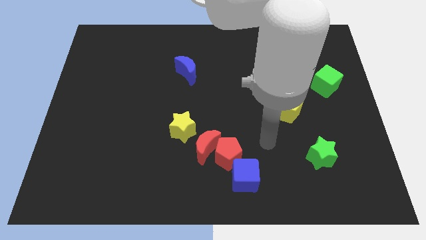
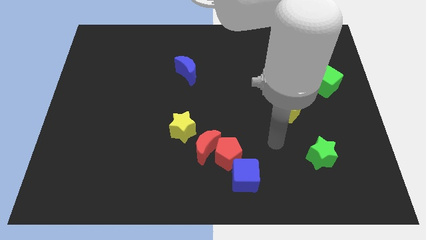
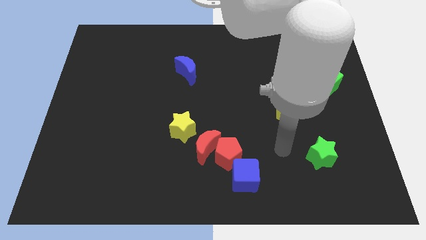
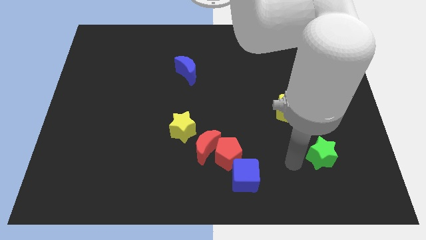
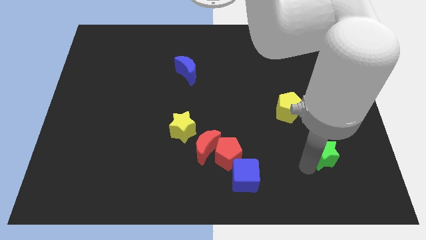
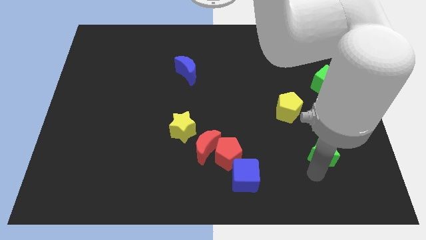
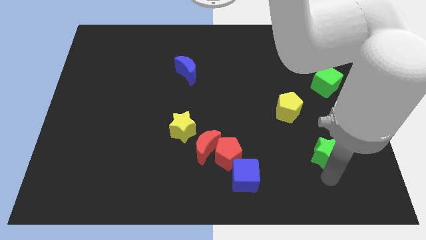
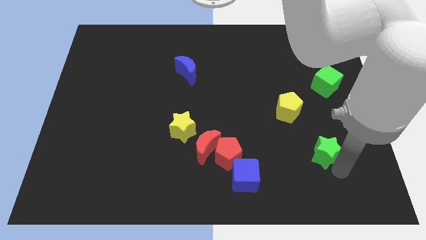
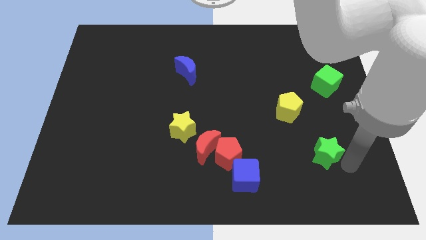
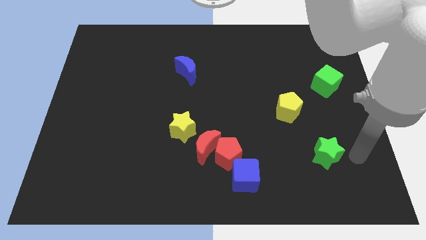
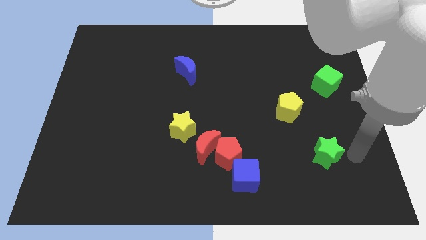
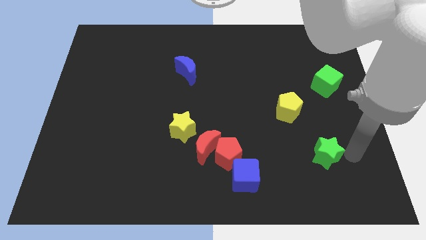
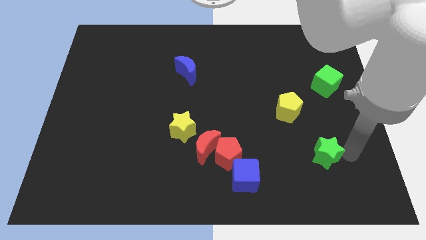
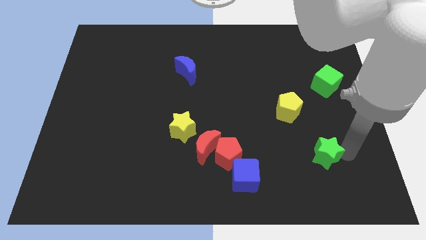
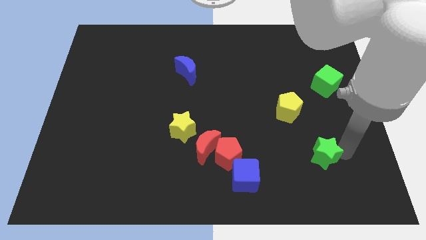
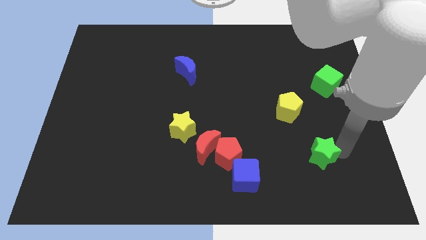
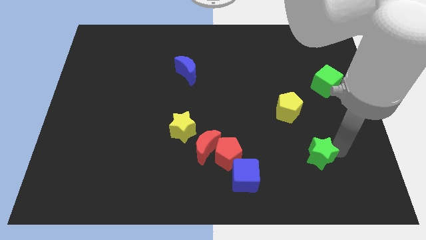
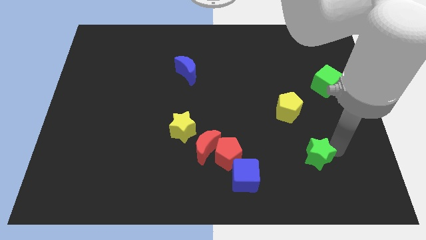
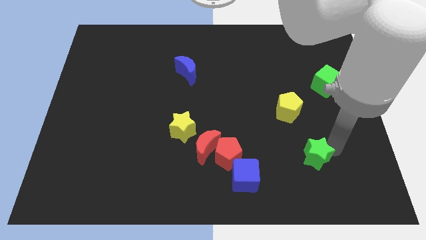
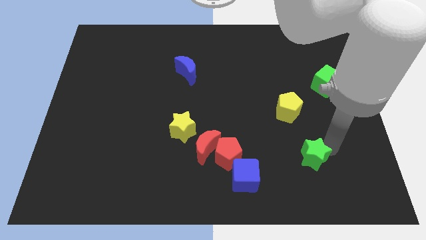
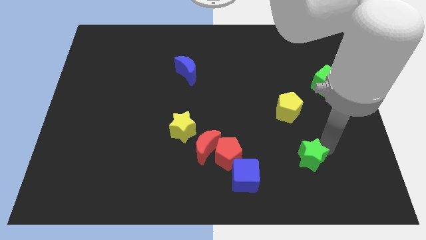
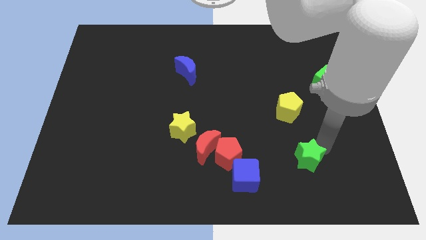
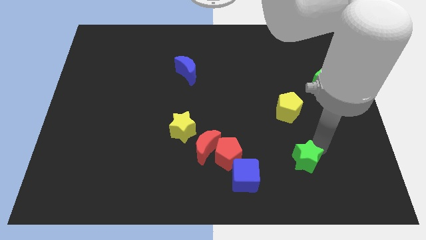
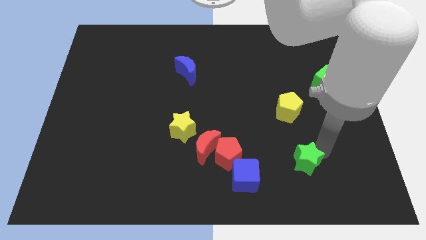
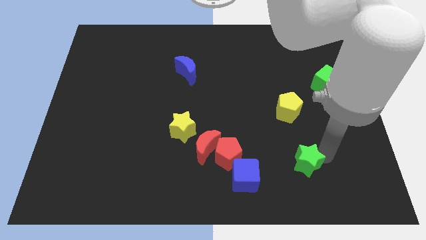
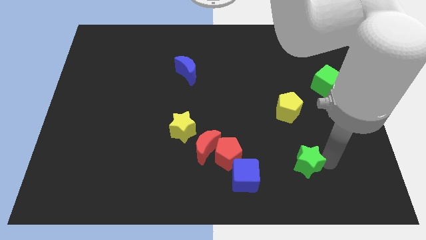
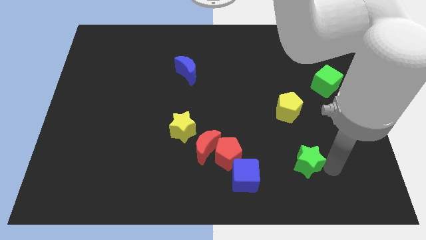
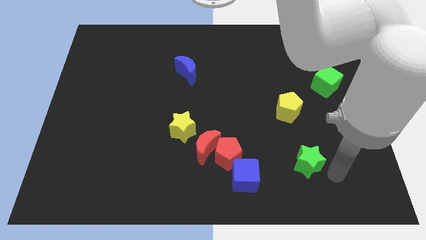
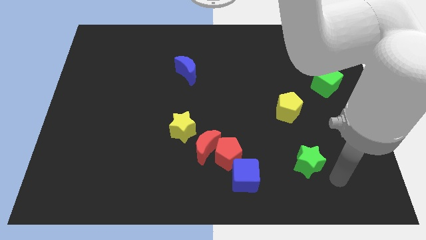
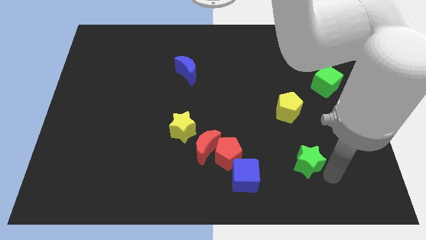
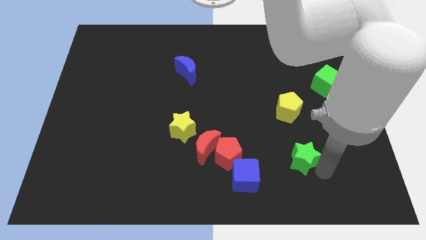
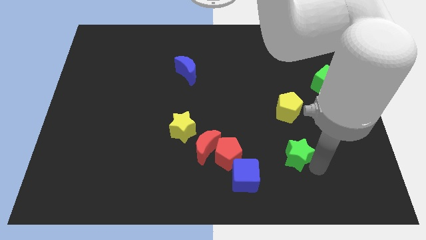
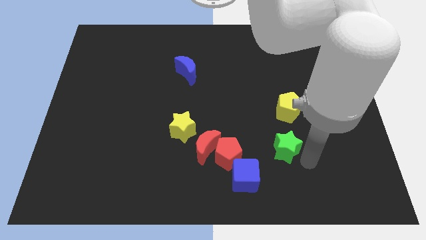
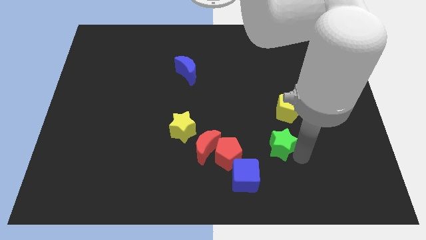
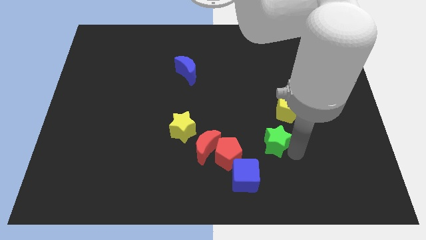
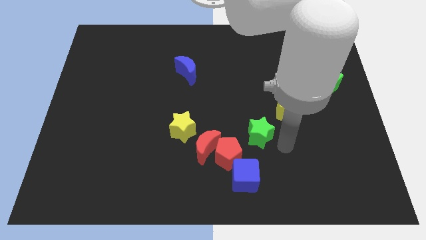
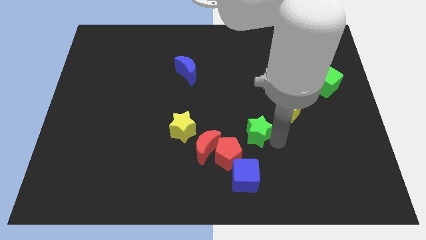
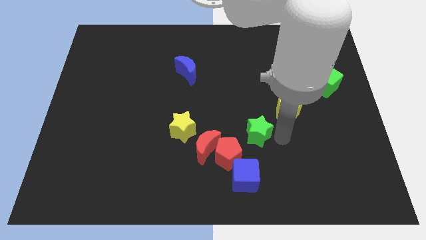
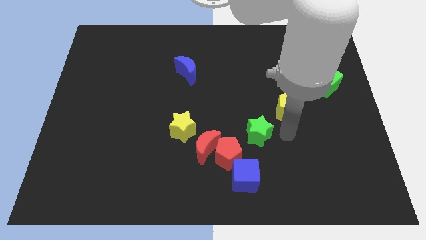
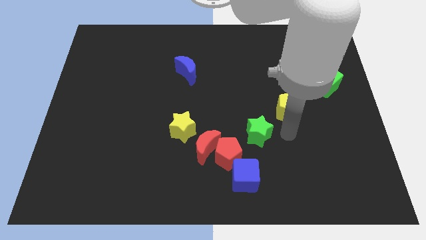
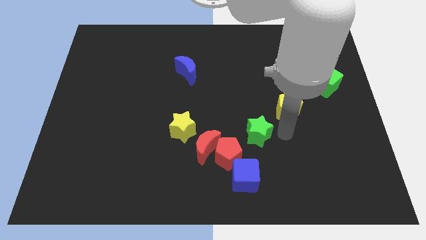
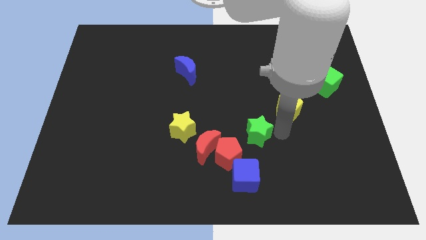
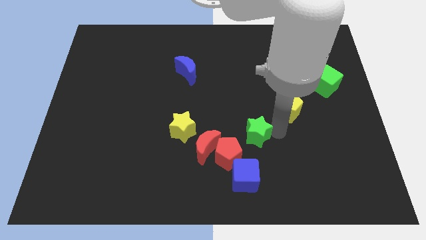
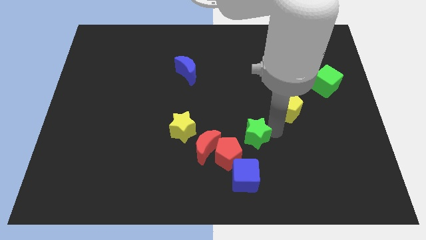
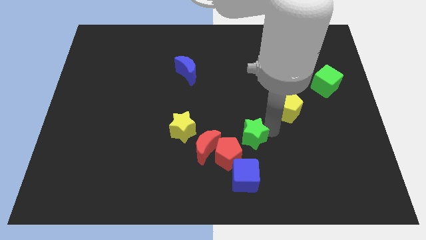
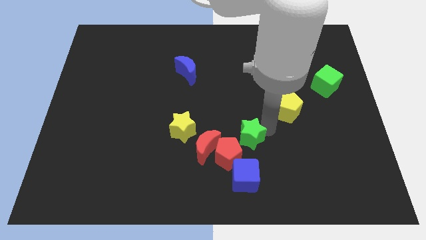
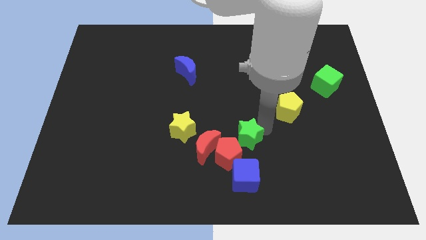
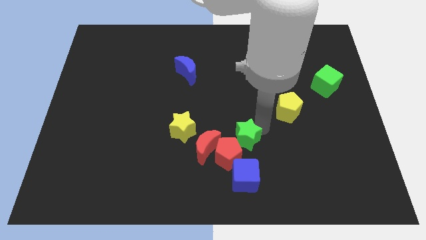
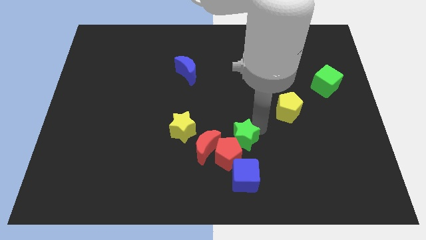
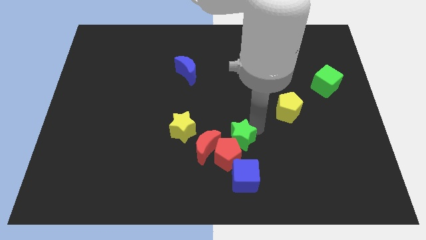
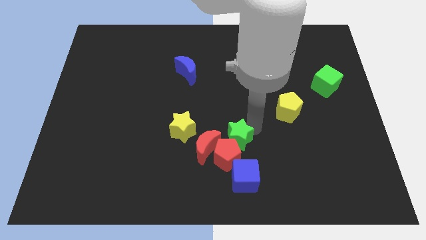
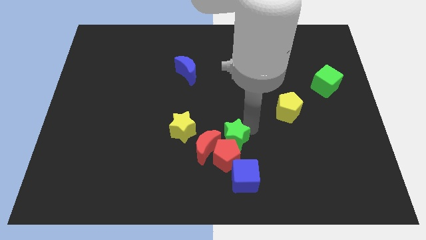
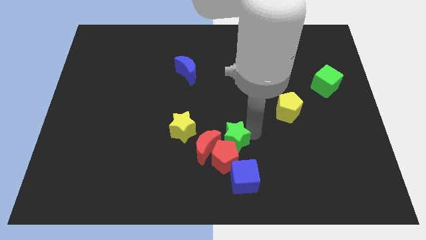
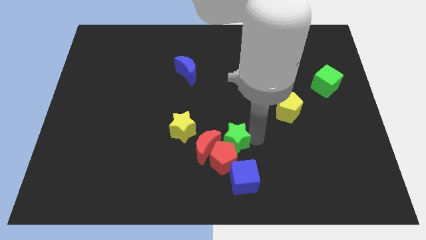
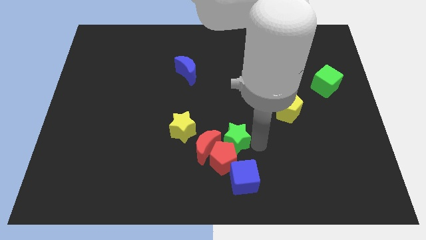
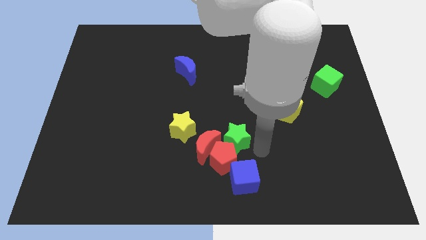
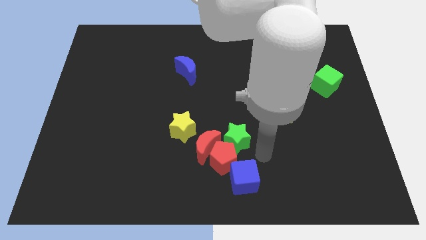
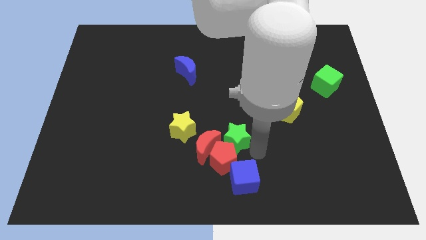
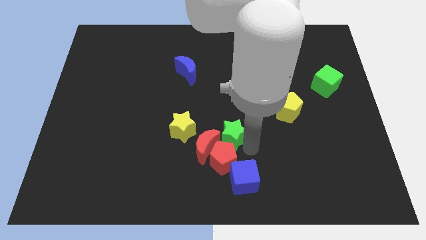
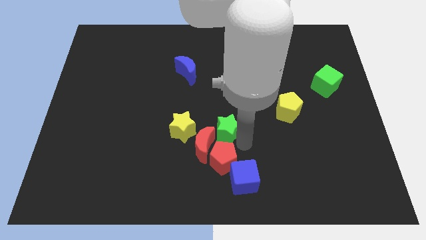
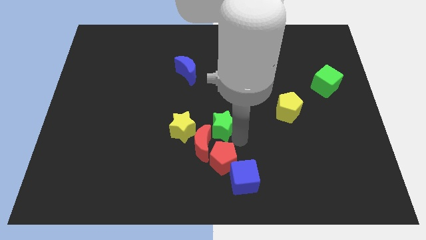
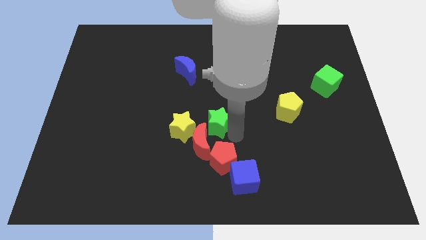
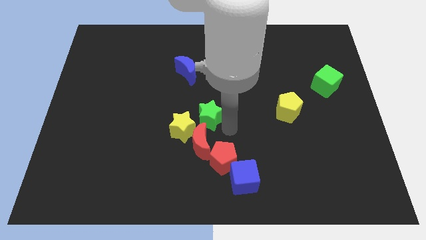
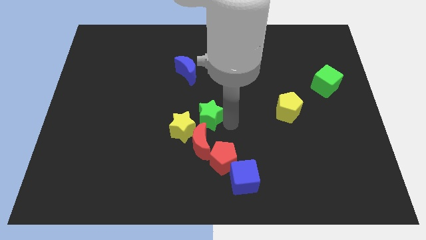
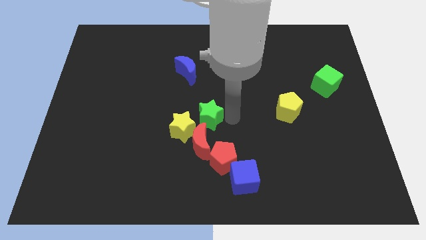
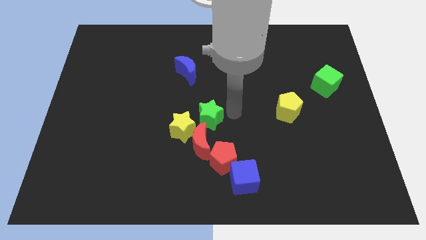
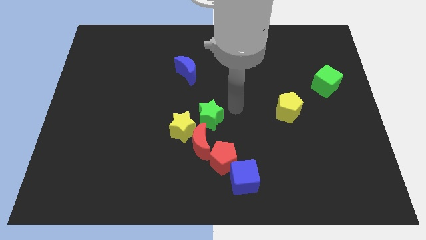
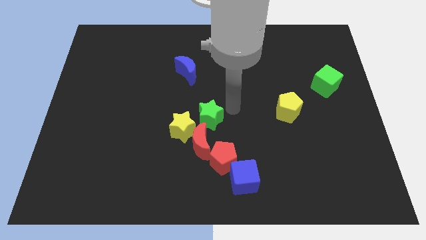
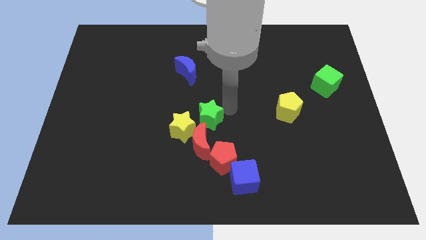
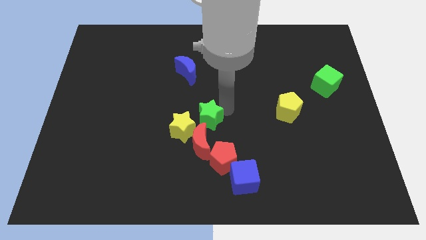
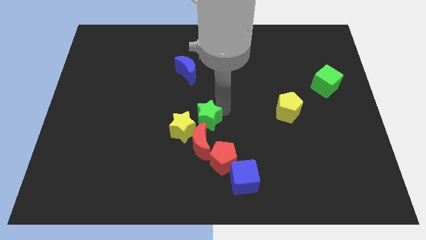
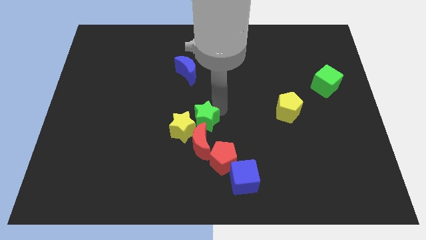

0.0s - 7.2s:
slide the green star towards the yellow star
